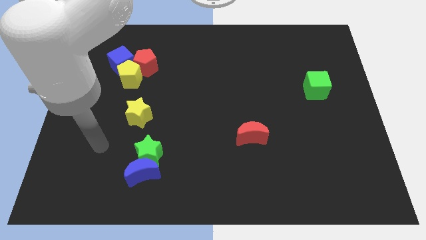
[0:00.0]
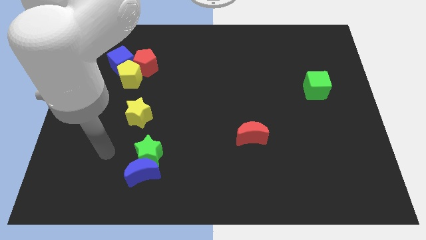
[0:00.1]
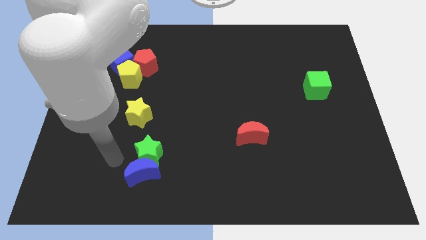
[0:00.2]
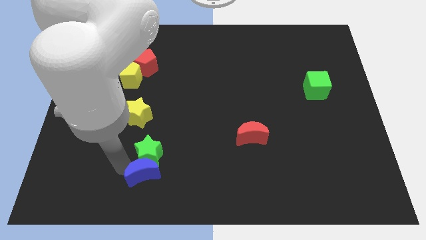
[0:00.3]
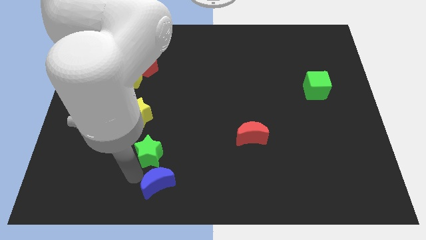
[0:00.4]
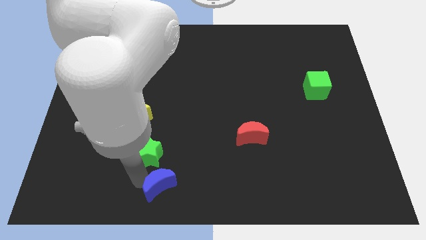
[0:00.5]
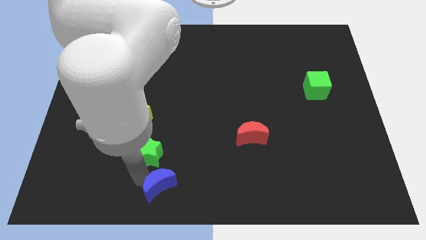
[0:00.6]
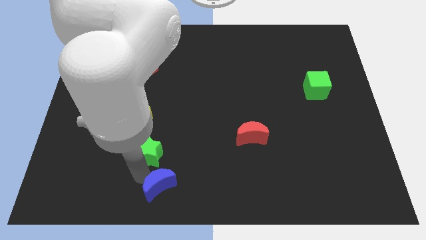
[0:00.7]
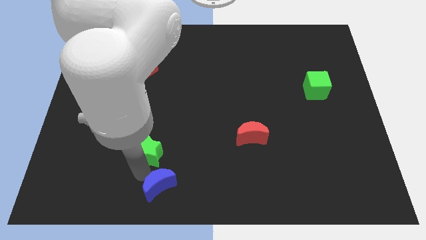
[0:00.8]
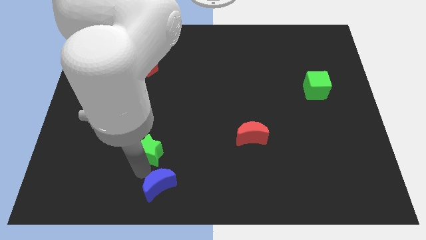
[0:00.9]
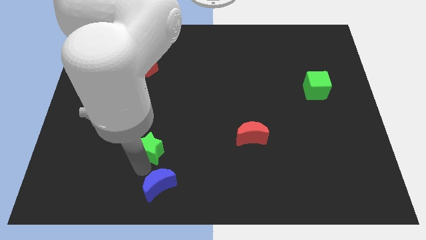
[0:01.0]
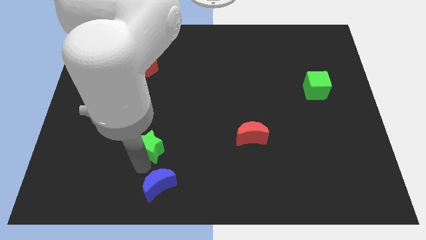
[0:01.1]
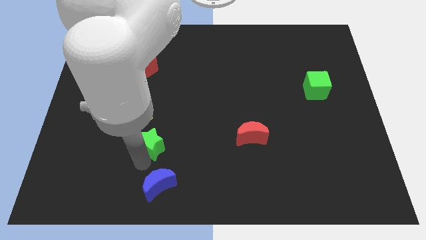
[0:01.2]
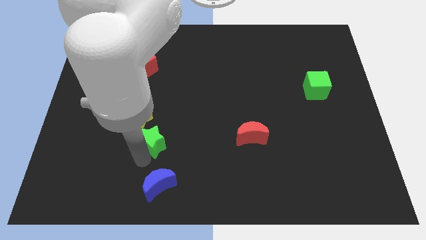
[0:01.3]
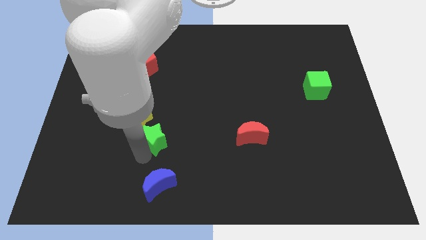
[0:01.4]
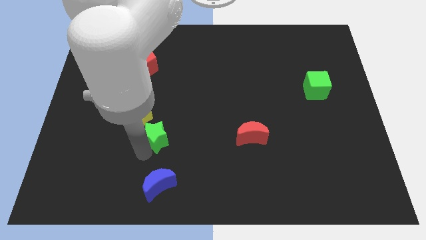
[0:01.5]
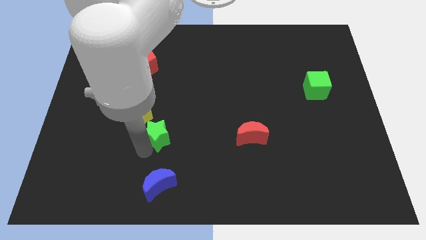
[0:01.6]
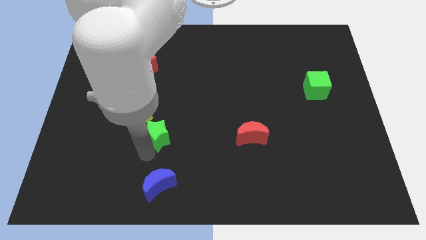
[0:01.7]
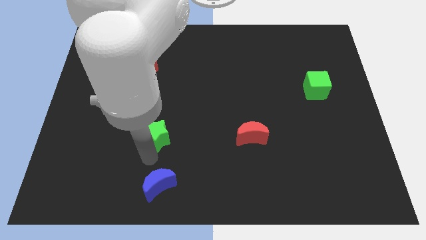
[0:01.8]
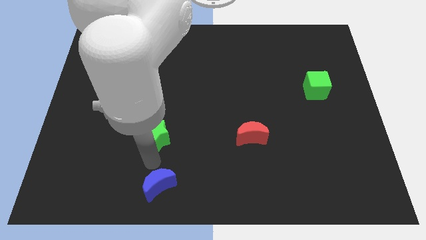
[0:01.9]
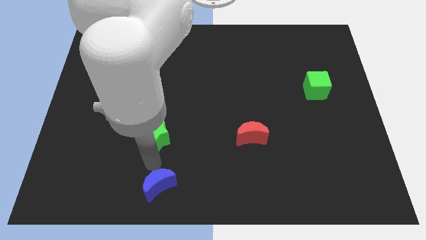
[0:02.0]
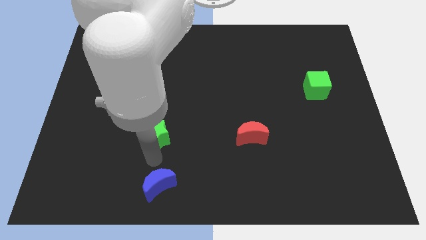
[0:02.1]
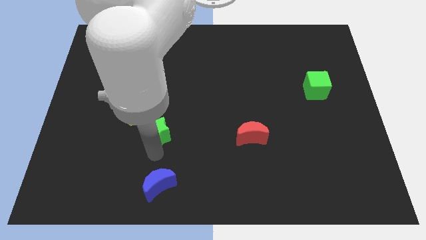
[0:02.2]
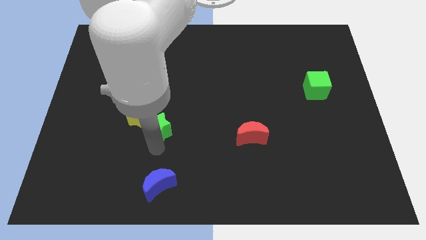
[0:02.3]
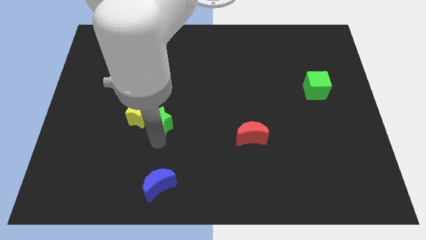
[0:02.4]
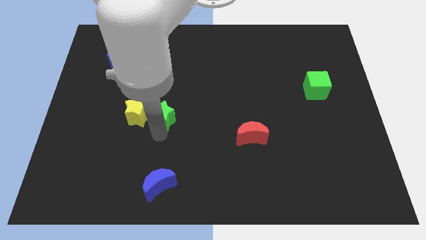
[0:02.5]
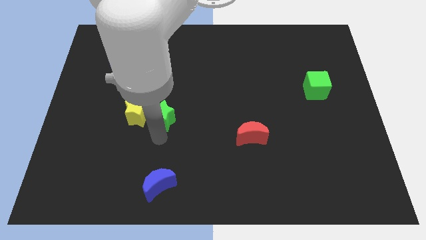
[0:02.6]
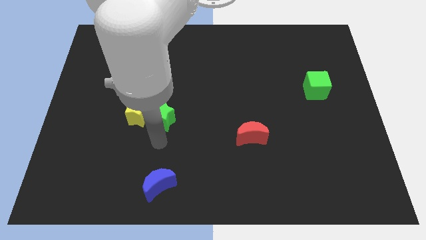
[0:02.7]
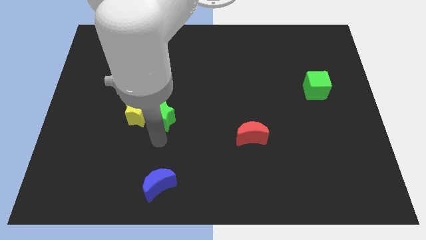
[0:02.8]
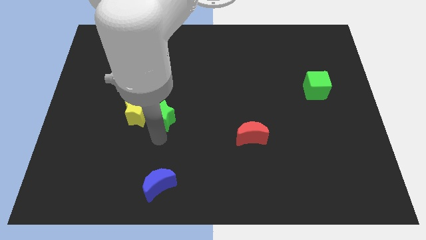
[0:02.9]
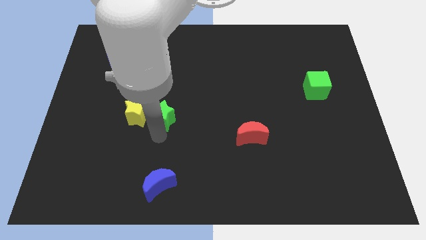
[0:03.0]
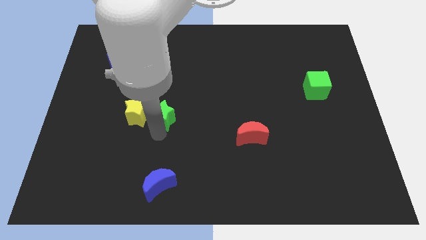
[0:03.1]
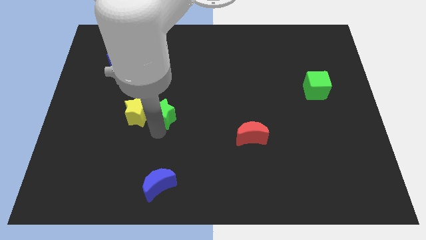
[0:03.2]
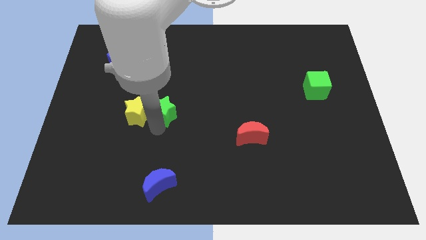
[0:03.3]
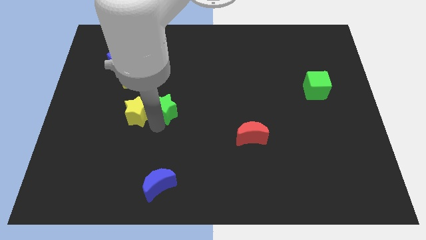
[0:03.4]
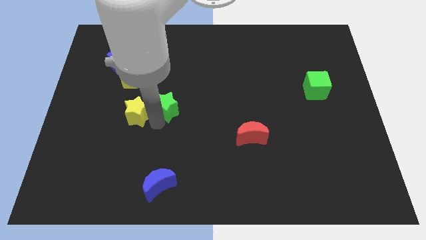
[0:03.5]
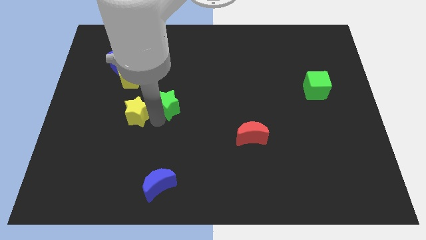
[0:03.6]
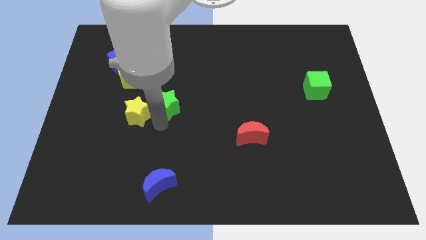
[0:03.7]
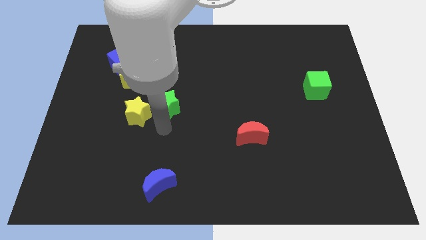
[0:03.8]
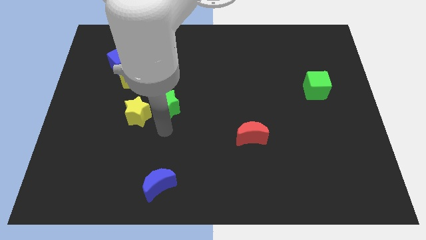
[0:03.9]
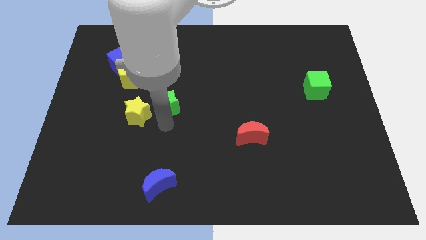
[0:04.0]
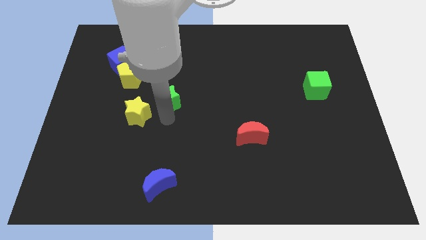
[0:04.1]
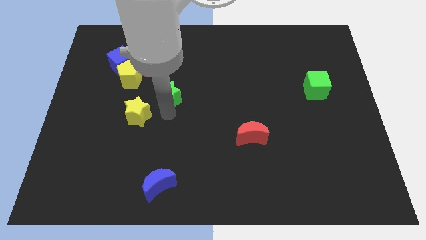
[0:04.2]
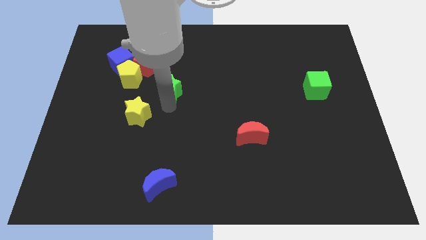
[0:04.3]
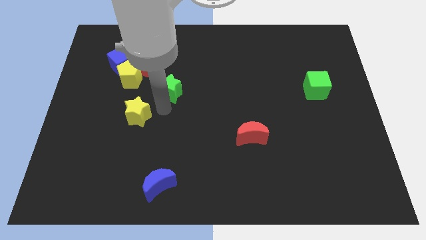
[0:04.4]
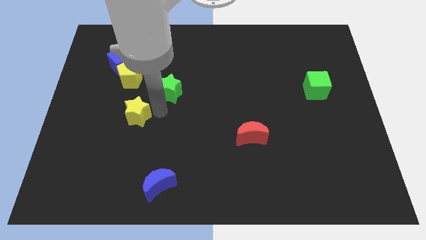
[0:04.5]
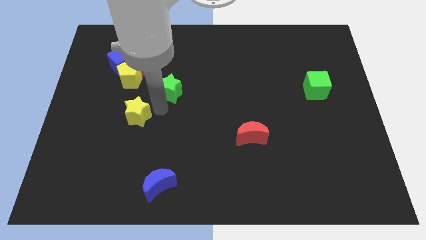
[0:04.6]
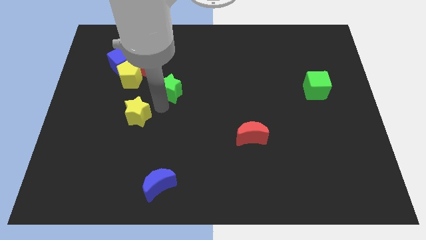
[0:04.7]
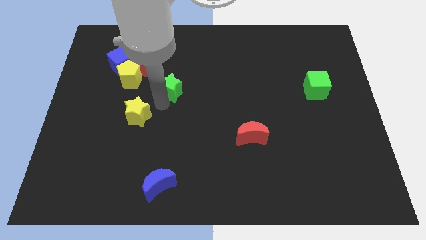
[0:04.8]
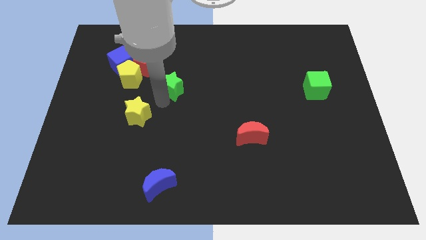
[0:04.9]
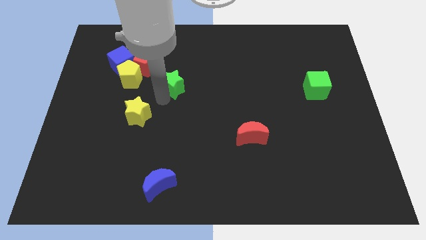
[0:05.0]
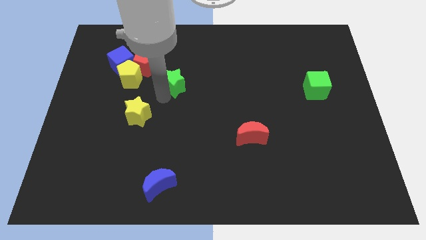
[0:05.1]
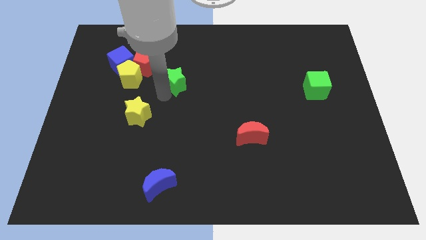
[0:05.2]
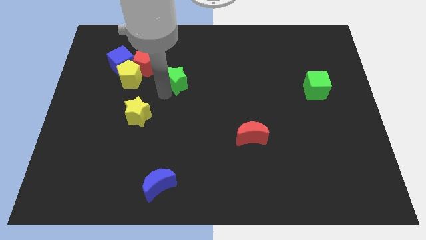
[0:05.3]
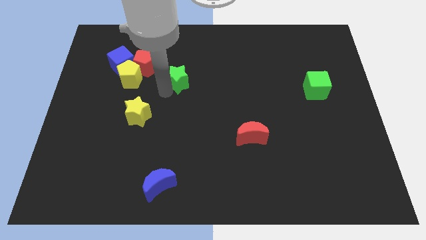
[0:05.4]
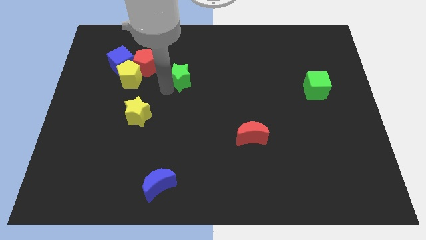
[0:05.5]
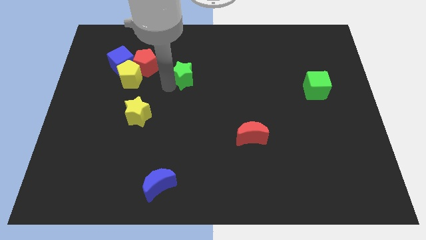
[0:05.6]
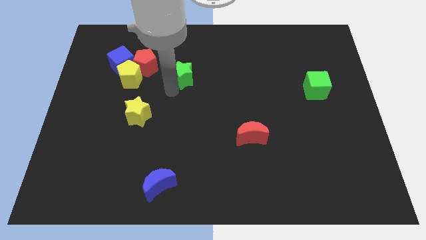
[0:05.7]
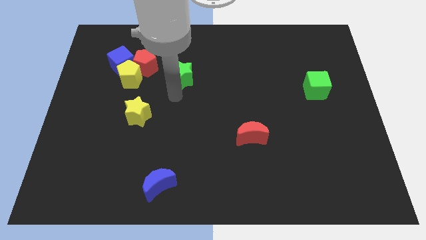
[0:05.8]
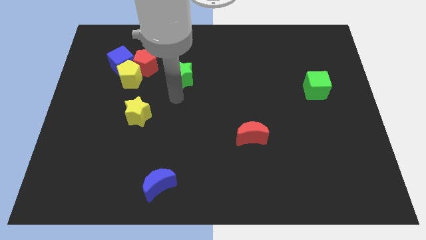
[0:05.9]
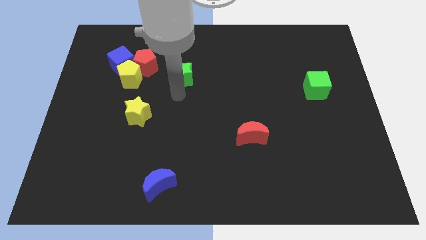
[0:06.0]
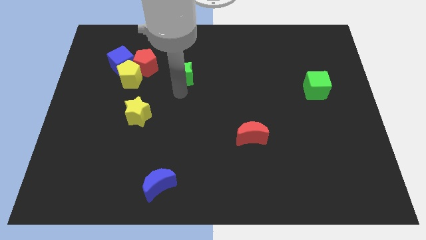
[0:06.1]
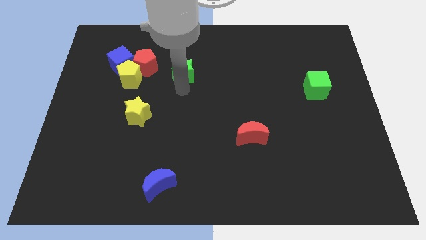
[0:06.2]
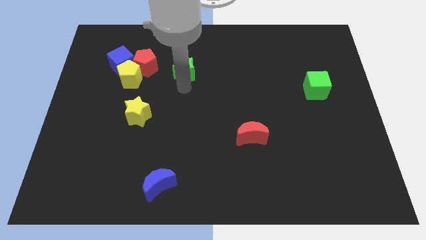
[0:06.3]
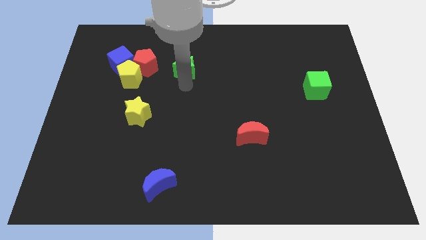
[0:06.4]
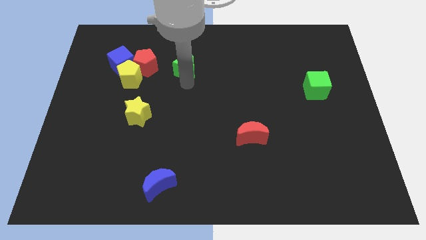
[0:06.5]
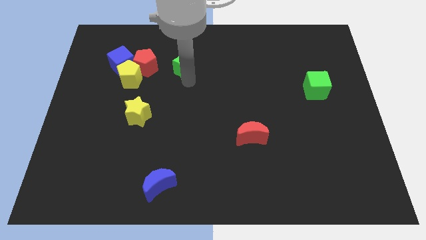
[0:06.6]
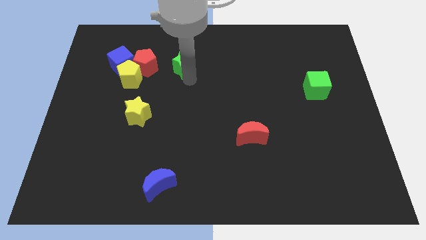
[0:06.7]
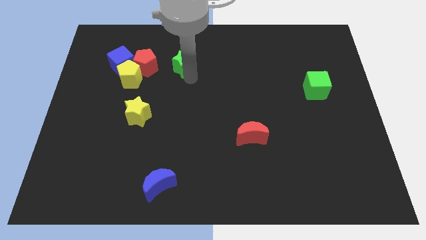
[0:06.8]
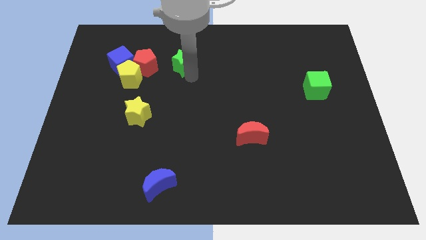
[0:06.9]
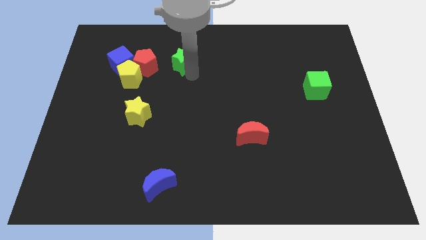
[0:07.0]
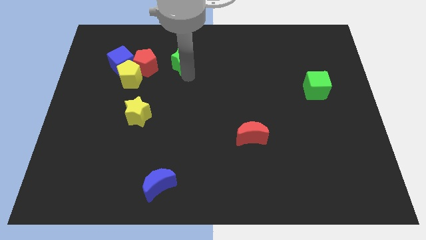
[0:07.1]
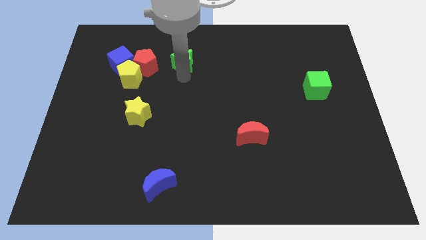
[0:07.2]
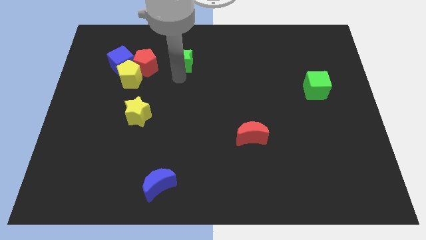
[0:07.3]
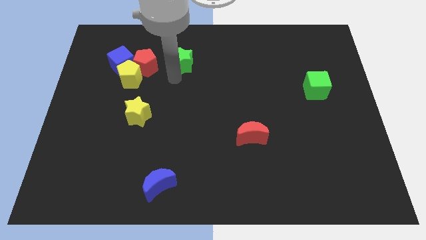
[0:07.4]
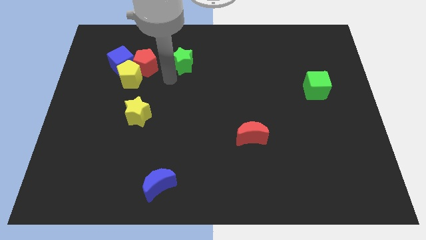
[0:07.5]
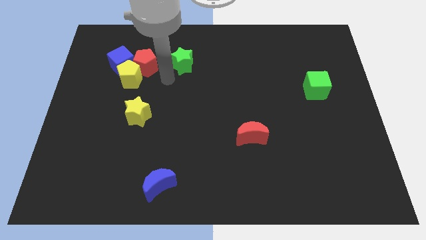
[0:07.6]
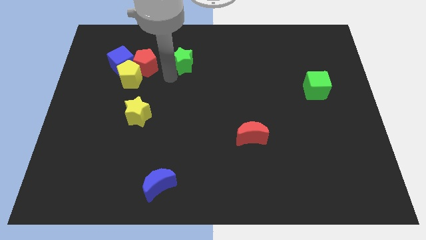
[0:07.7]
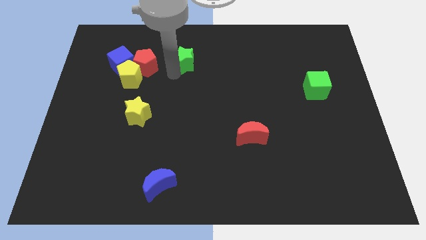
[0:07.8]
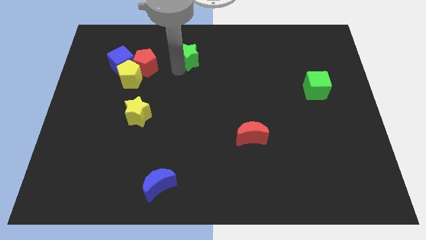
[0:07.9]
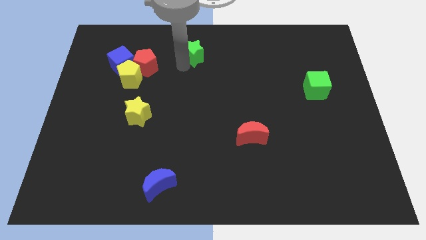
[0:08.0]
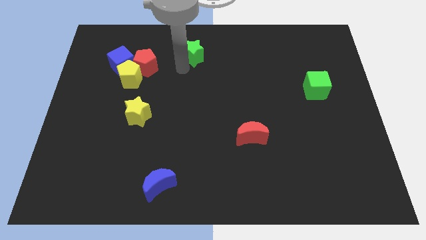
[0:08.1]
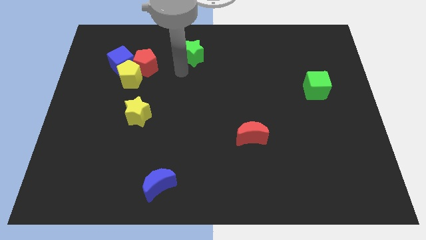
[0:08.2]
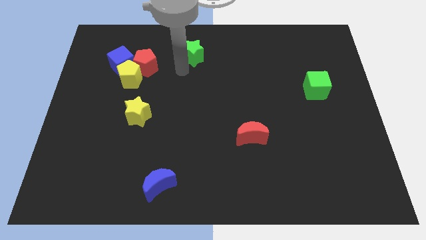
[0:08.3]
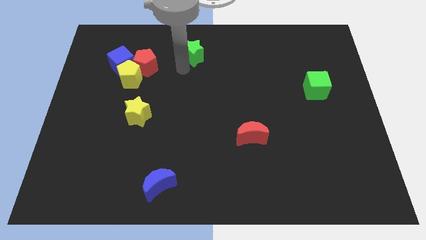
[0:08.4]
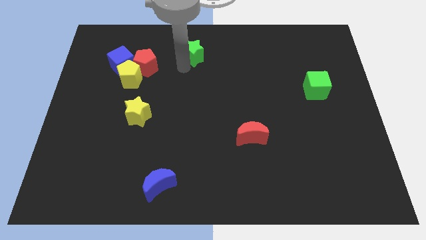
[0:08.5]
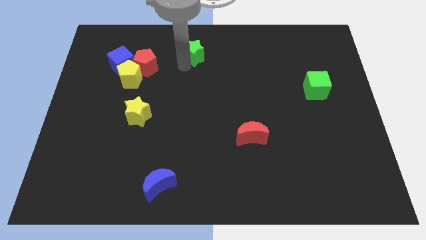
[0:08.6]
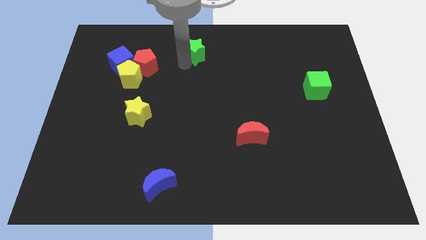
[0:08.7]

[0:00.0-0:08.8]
put the green star to the top side
